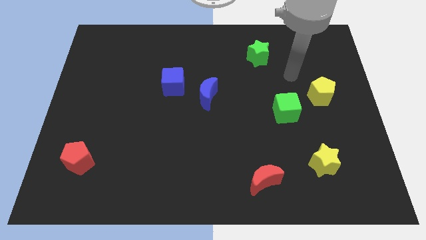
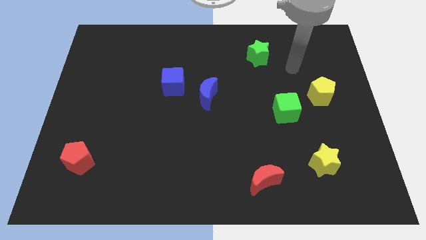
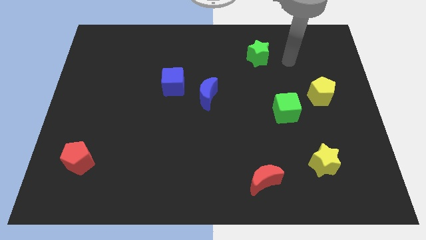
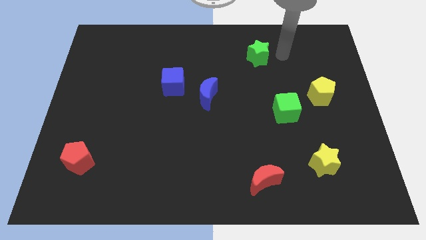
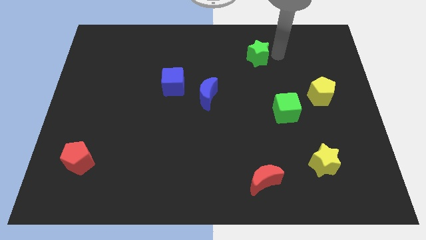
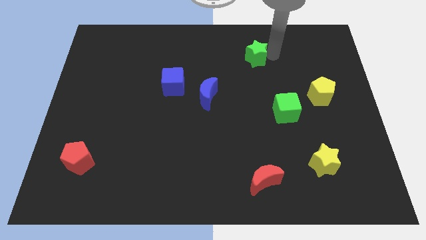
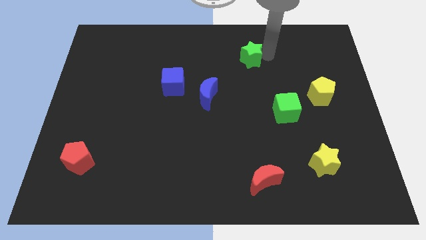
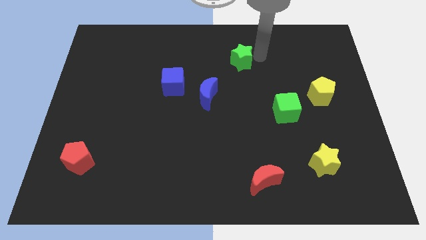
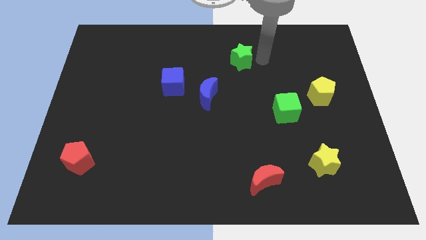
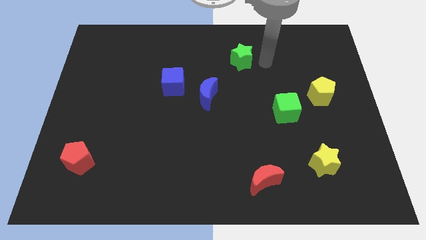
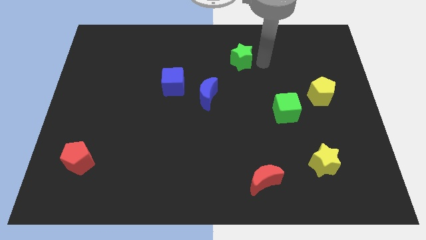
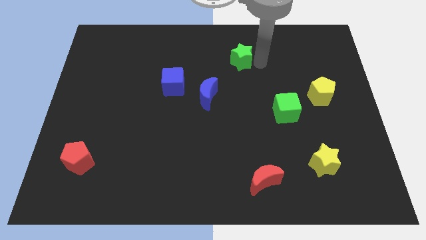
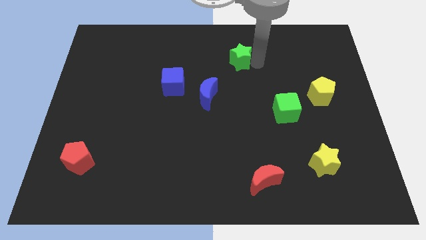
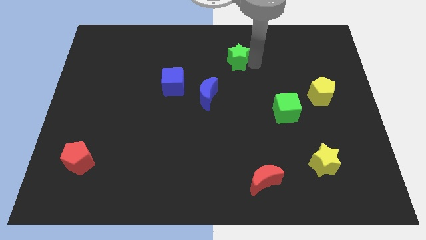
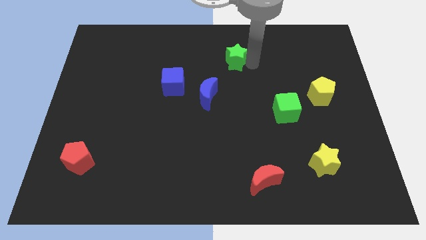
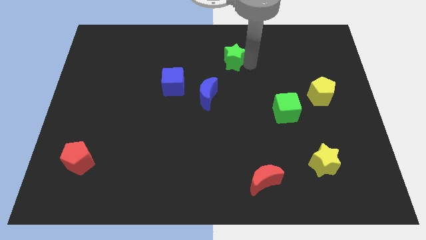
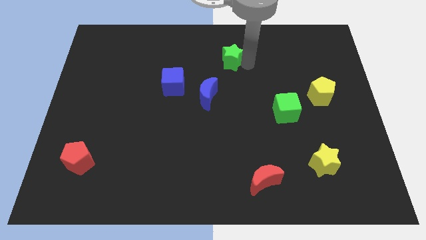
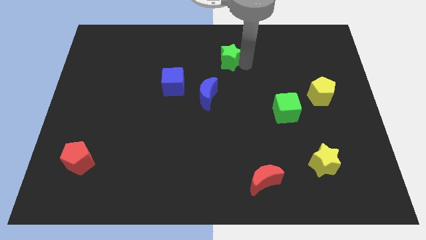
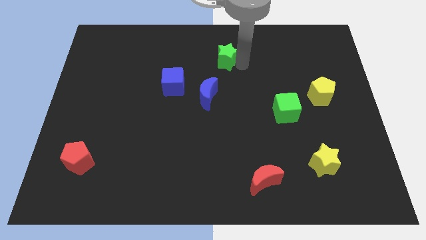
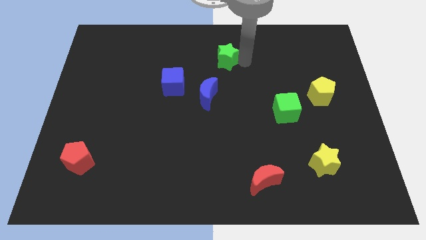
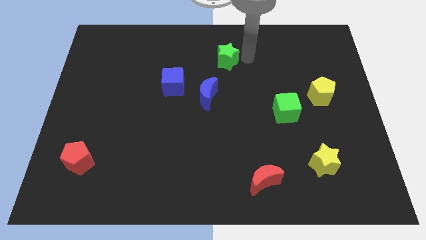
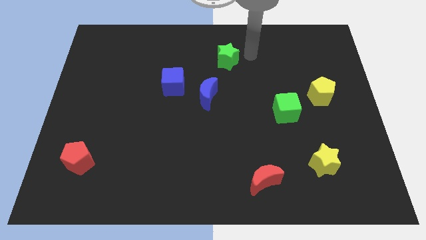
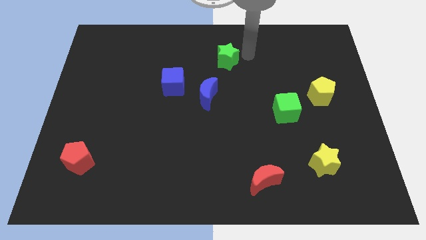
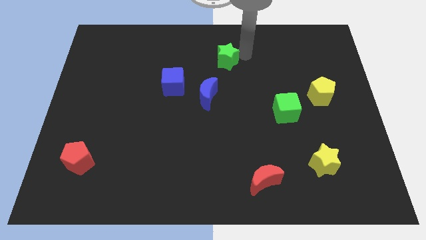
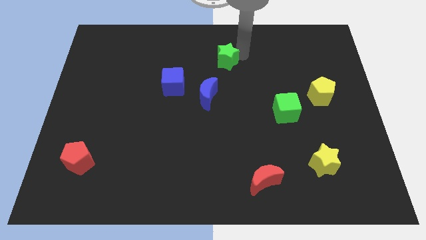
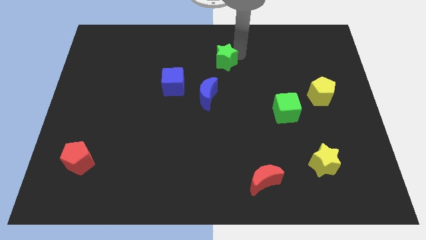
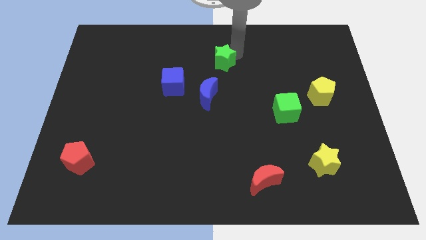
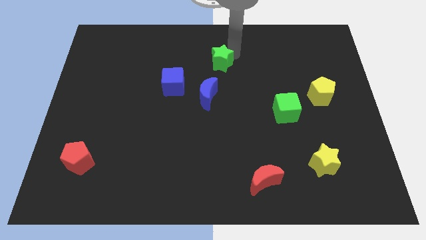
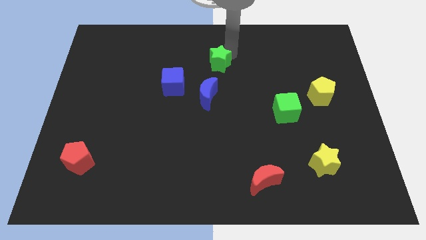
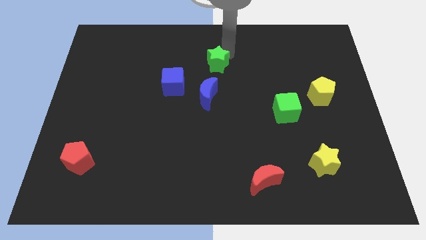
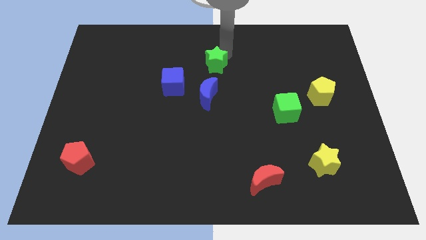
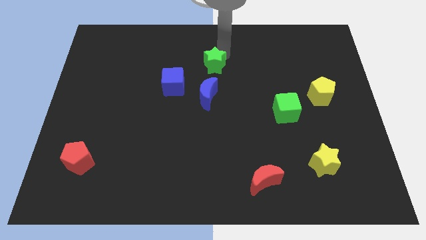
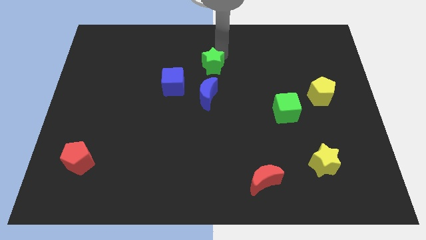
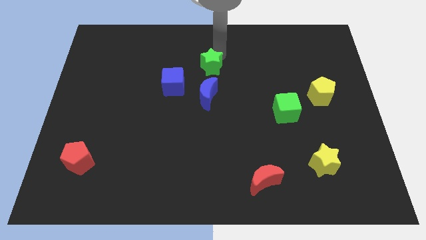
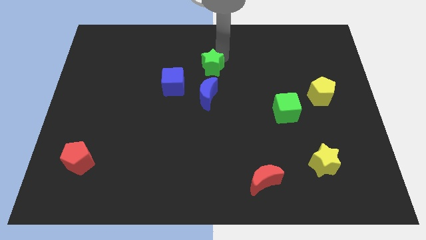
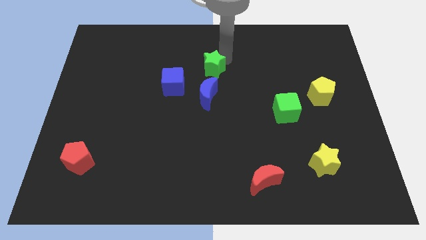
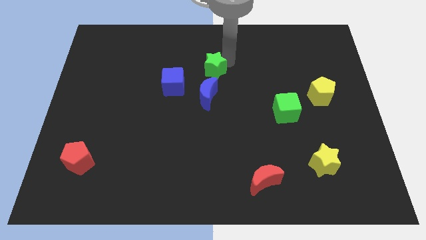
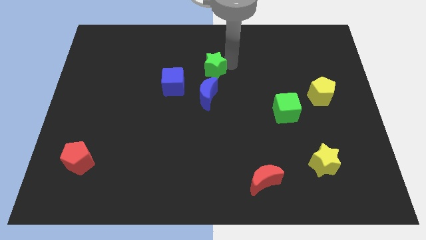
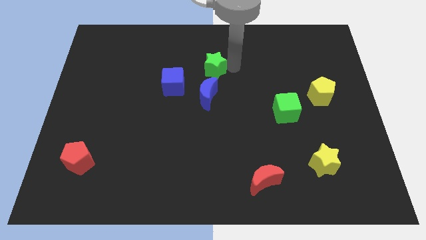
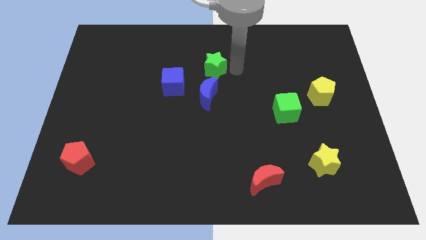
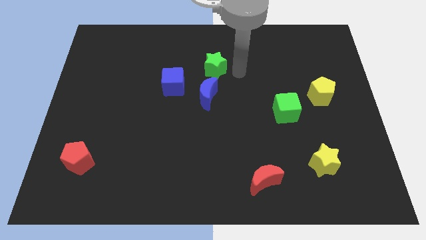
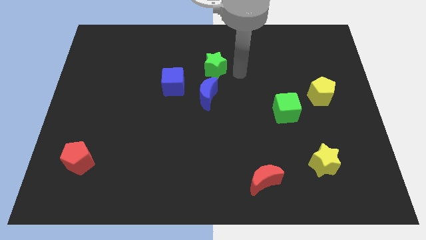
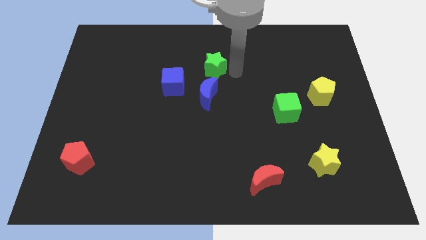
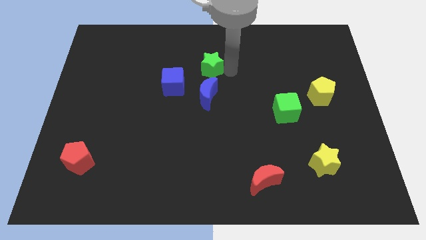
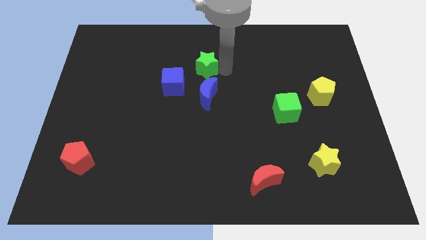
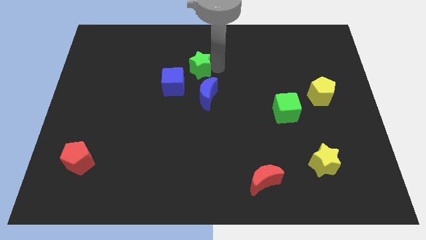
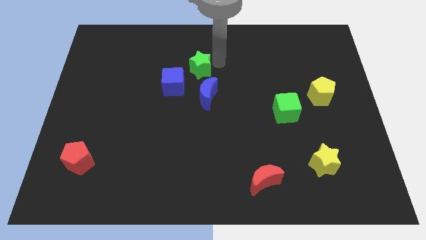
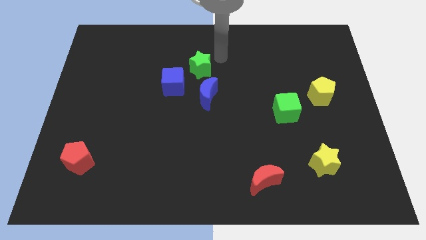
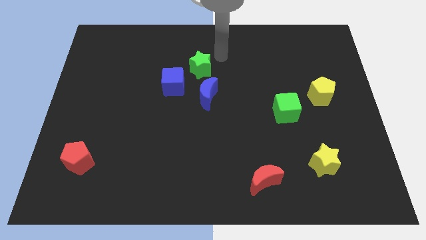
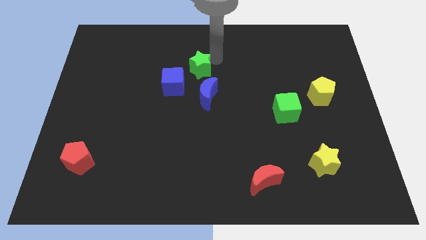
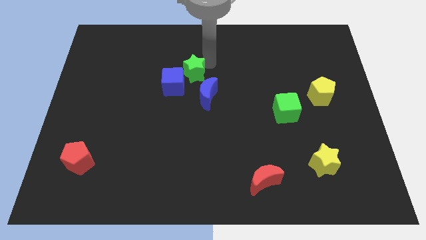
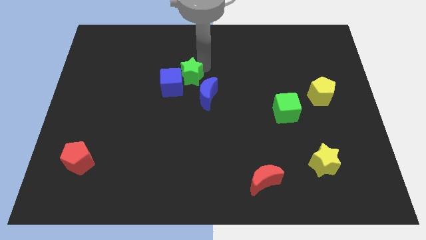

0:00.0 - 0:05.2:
push the green star towards the blue cube

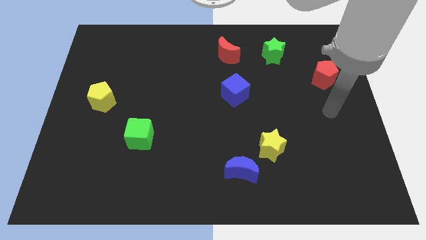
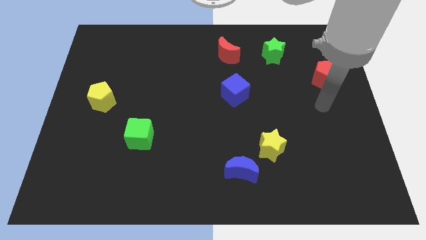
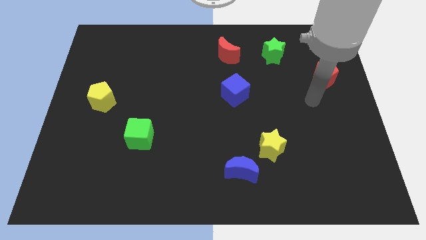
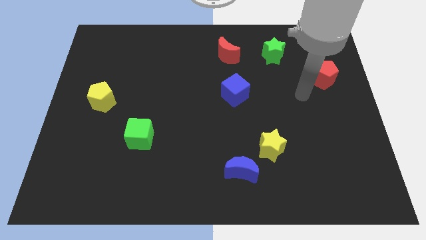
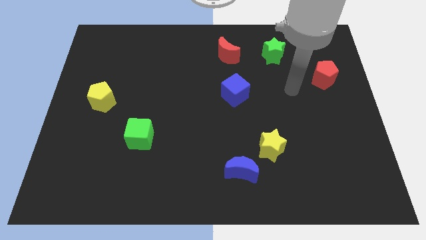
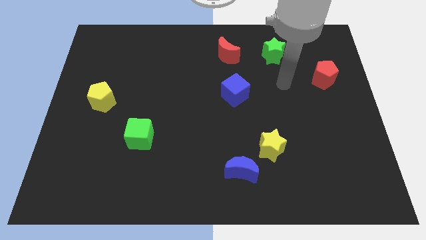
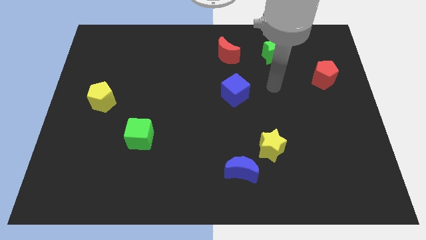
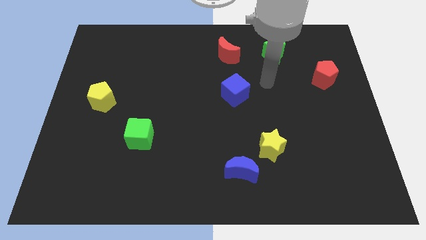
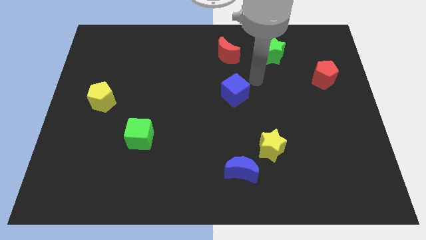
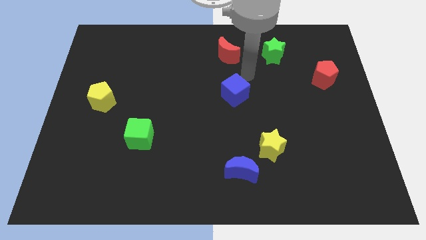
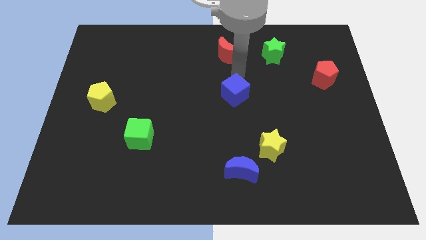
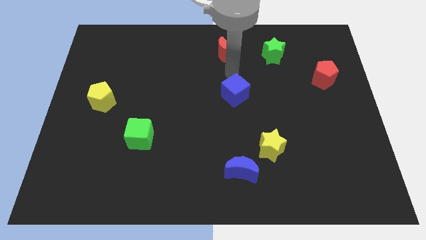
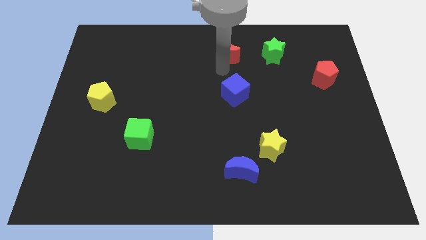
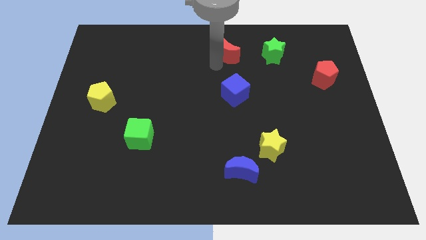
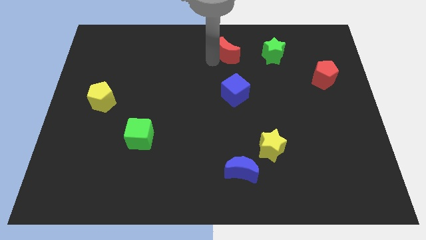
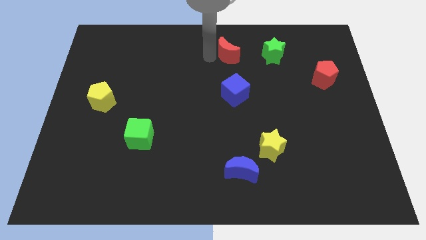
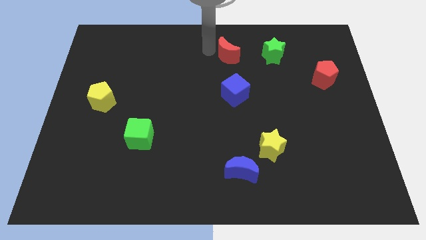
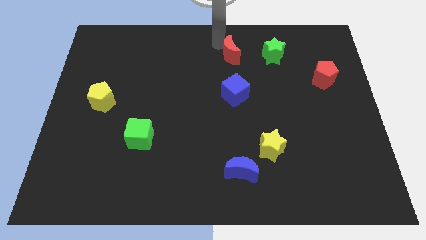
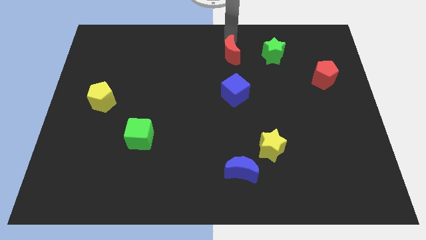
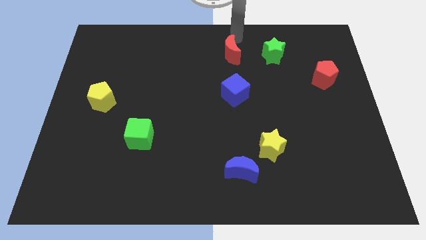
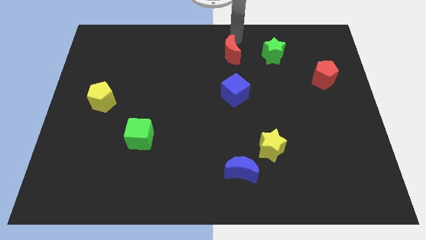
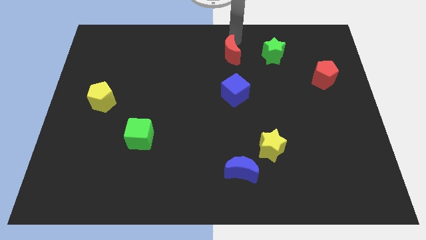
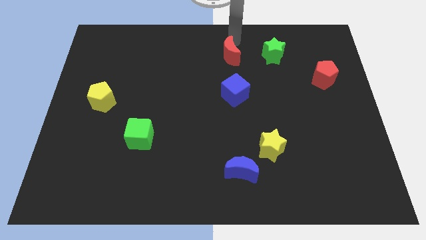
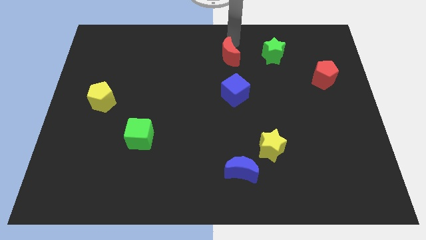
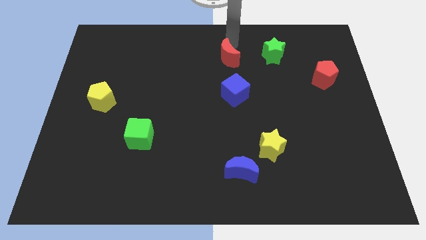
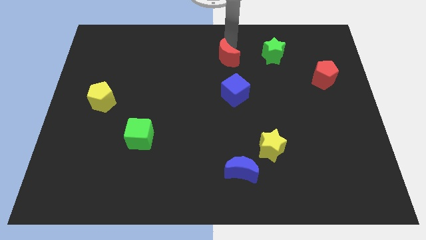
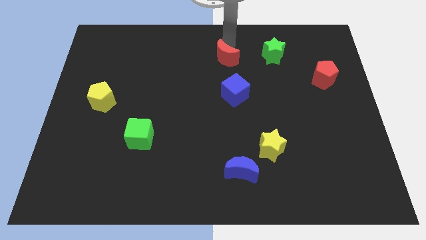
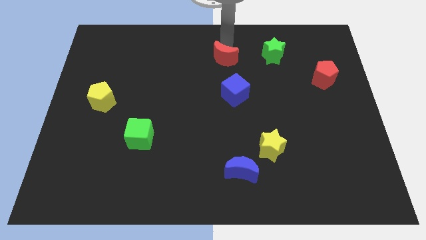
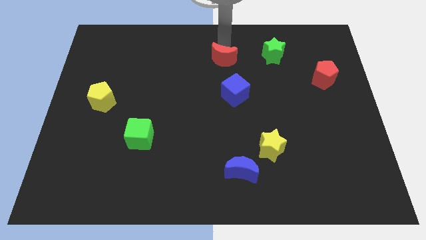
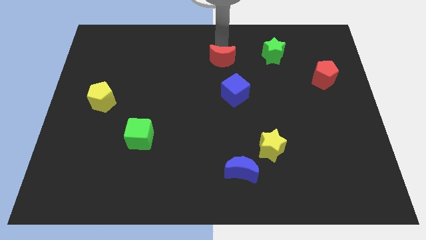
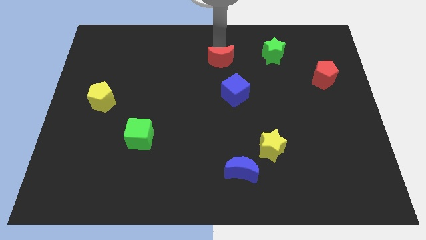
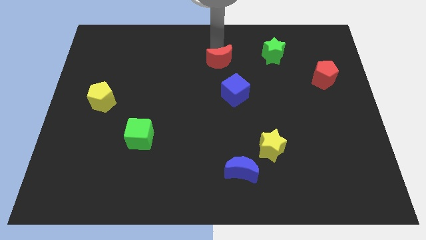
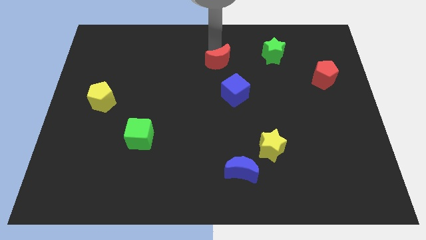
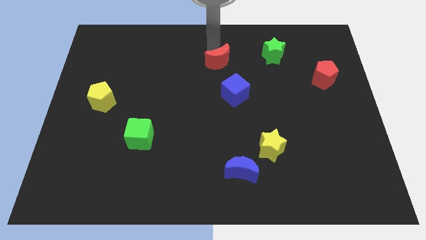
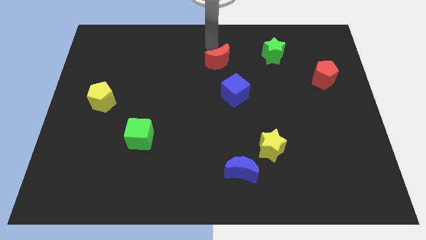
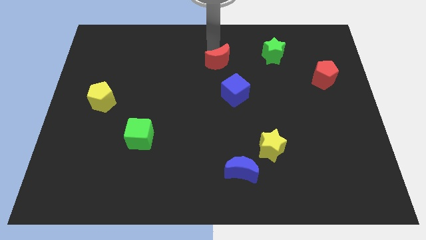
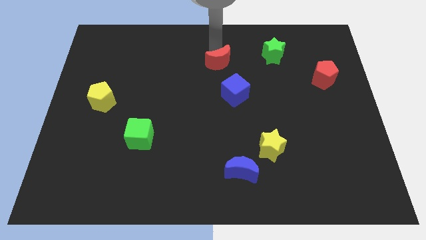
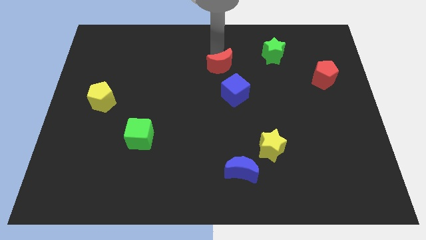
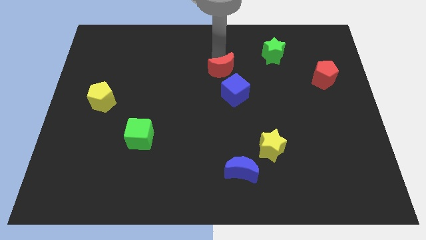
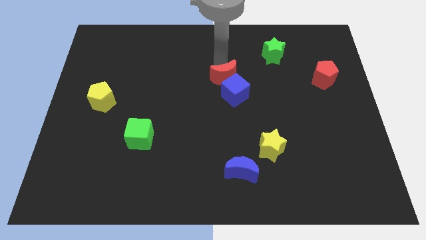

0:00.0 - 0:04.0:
slide the red moon next to the blue cube
